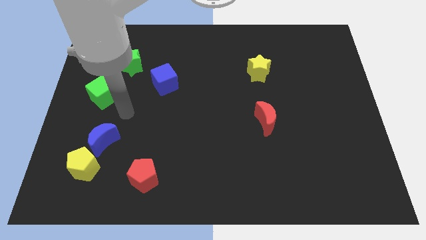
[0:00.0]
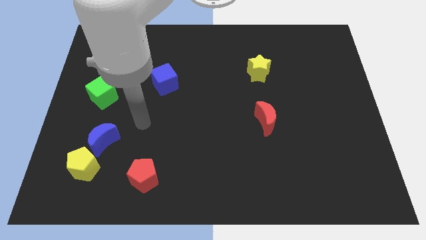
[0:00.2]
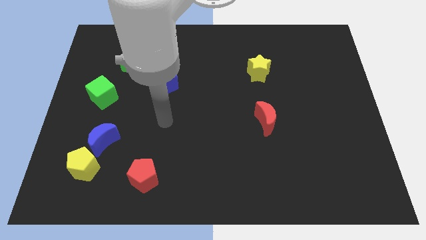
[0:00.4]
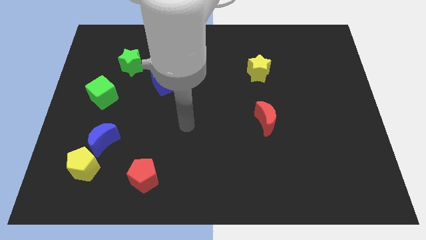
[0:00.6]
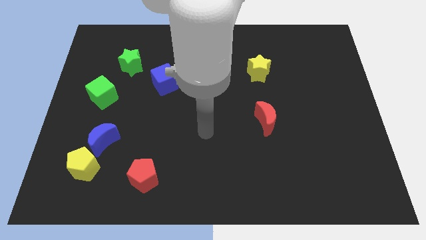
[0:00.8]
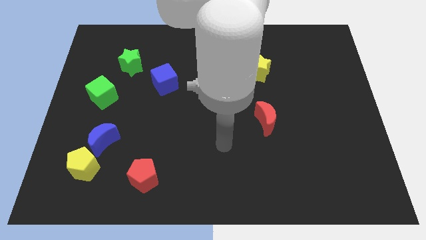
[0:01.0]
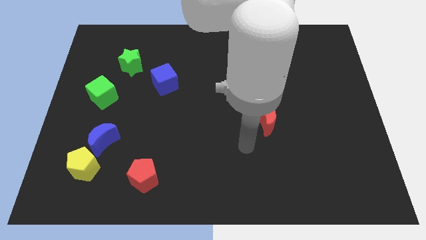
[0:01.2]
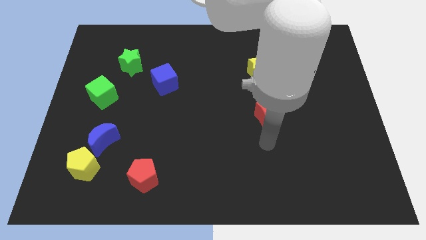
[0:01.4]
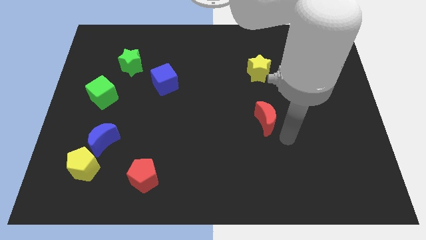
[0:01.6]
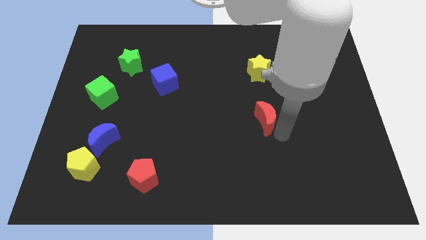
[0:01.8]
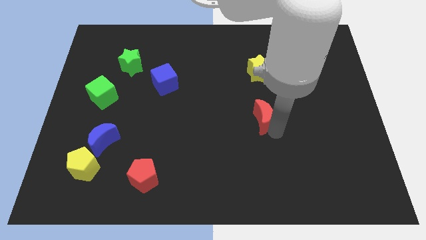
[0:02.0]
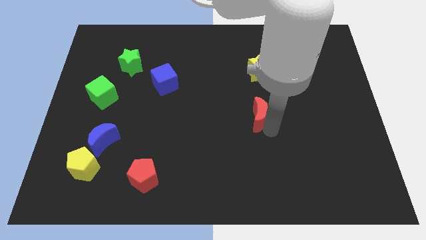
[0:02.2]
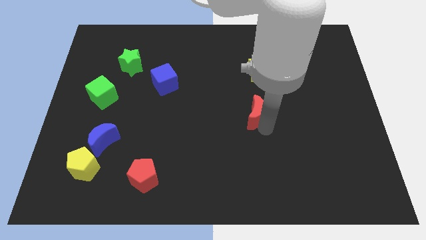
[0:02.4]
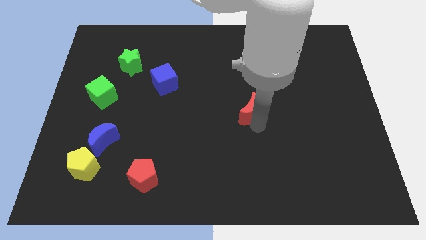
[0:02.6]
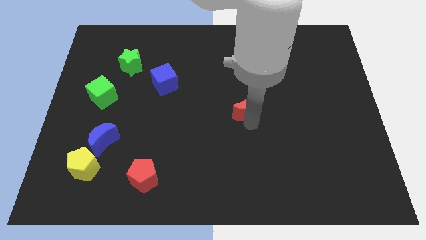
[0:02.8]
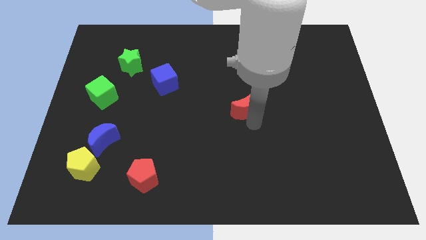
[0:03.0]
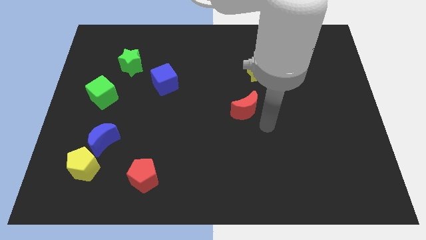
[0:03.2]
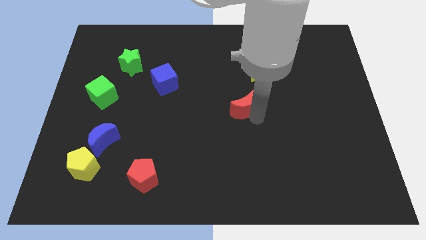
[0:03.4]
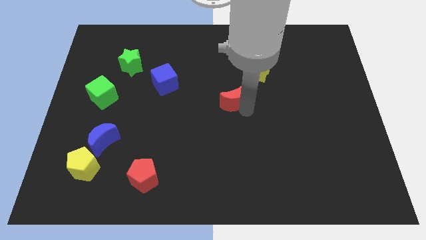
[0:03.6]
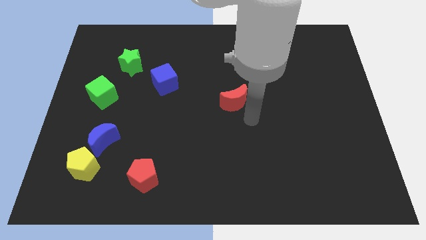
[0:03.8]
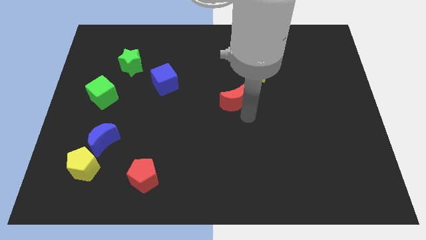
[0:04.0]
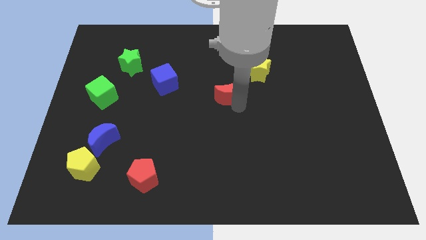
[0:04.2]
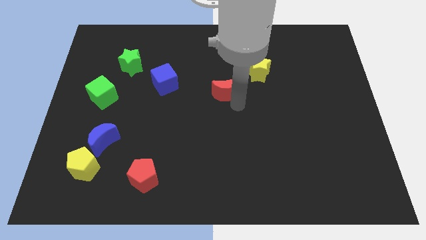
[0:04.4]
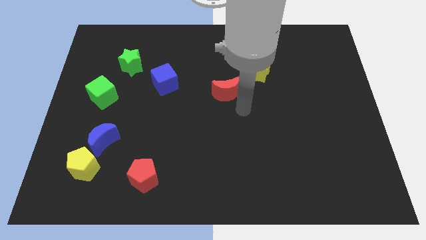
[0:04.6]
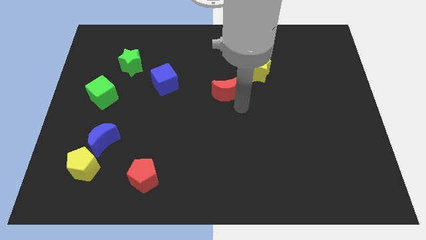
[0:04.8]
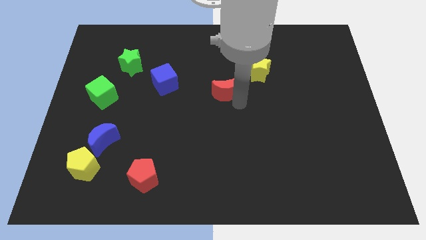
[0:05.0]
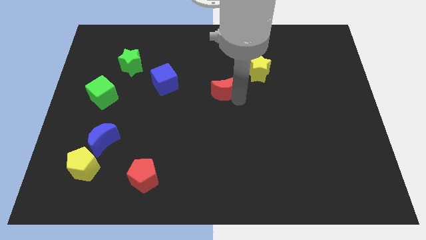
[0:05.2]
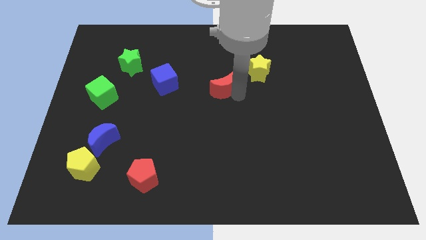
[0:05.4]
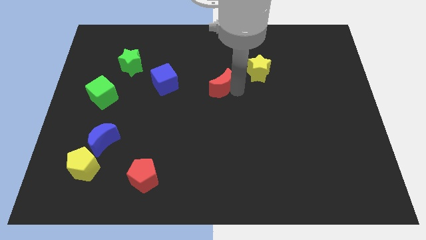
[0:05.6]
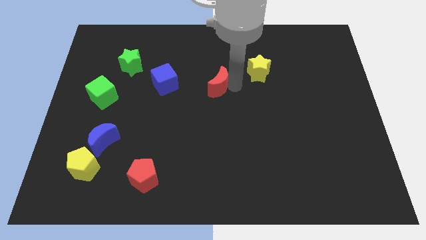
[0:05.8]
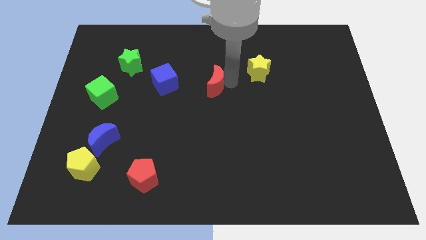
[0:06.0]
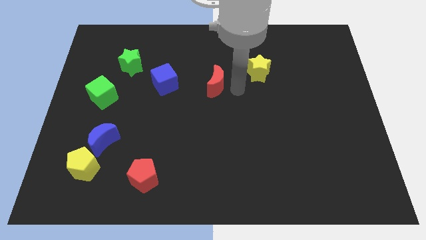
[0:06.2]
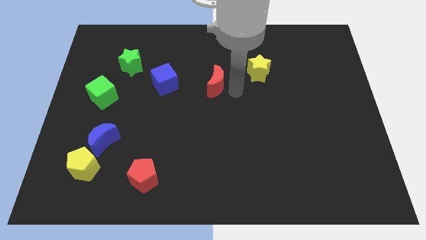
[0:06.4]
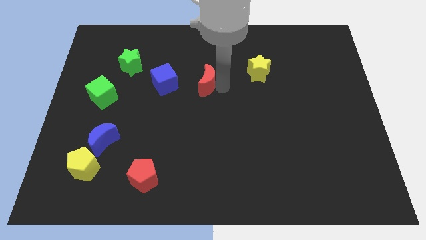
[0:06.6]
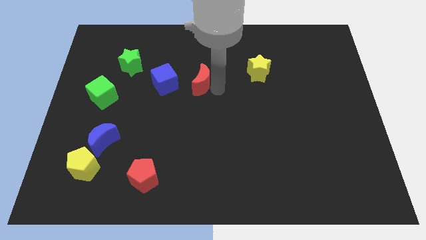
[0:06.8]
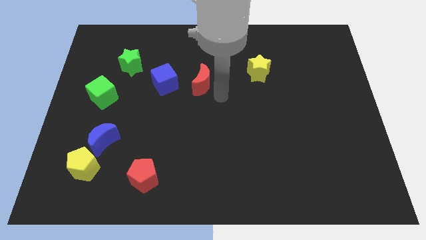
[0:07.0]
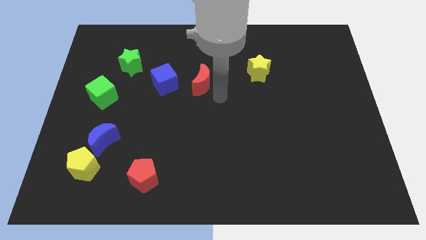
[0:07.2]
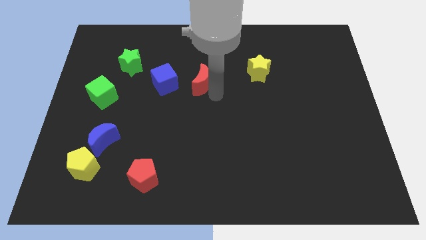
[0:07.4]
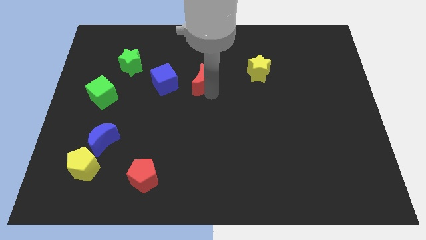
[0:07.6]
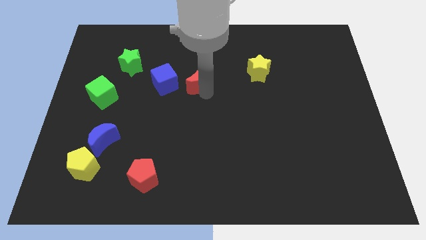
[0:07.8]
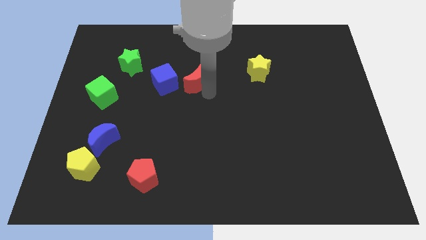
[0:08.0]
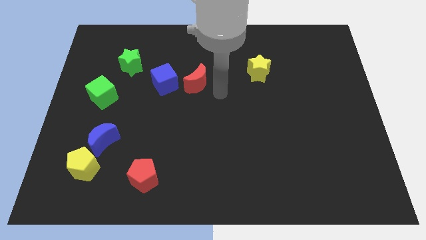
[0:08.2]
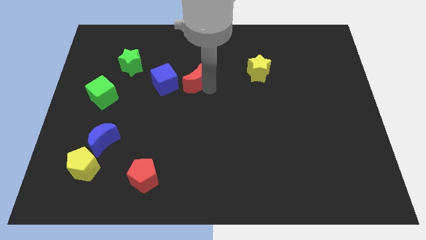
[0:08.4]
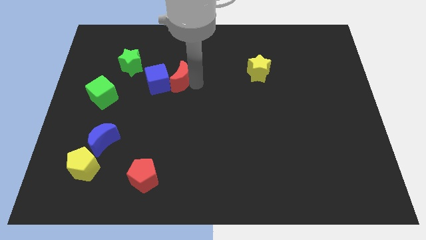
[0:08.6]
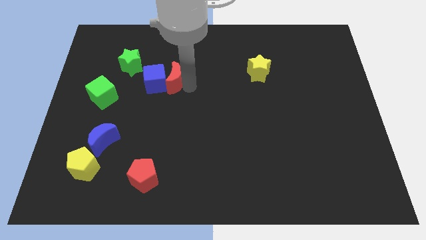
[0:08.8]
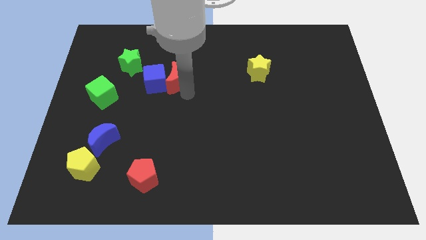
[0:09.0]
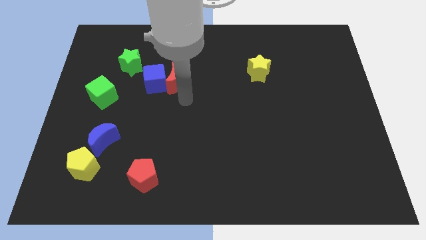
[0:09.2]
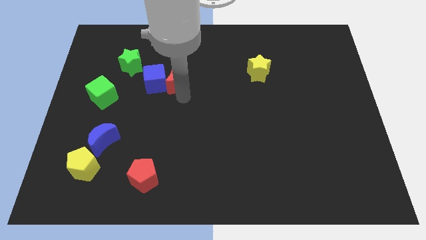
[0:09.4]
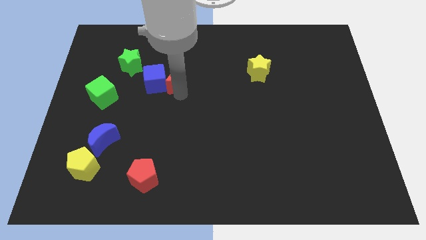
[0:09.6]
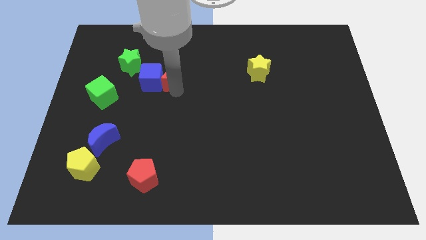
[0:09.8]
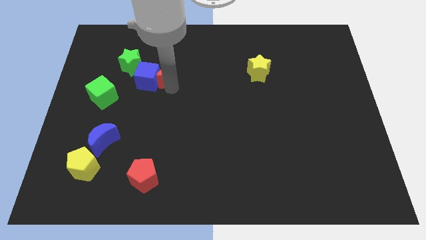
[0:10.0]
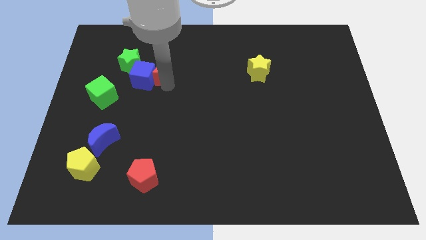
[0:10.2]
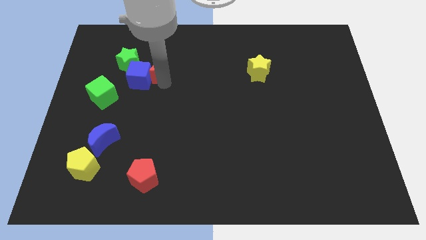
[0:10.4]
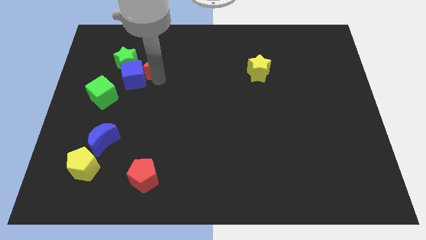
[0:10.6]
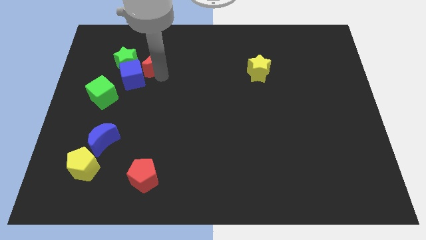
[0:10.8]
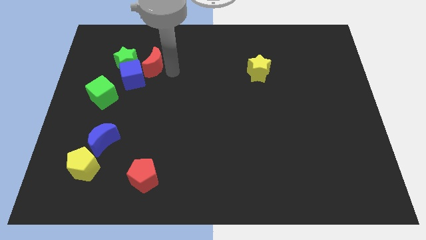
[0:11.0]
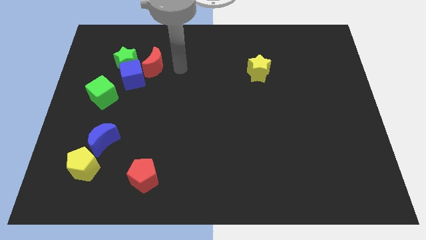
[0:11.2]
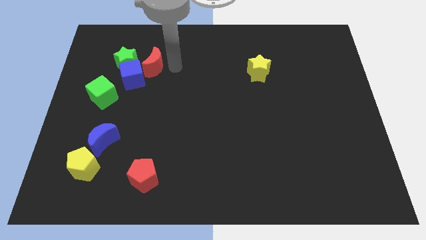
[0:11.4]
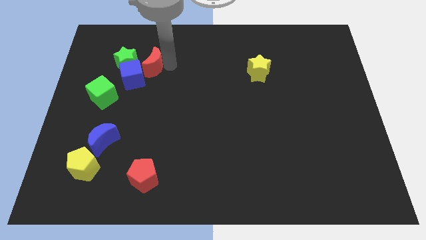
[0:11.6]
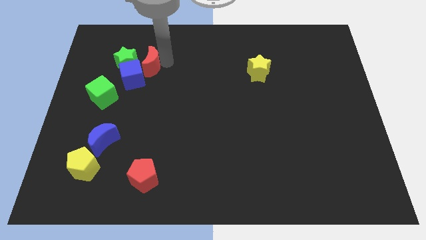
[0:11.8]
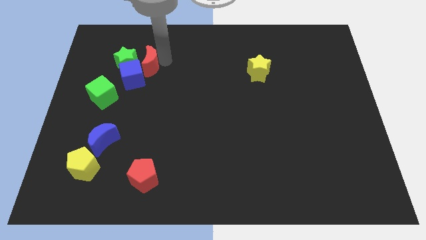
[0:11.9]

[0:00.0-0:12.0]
push the red moon close to the green star
